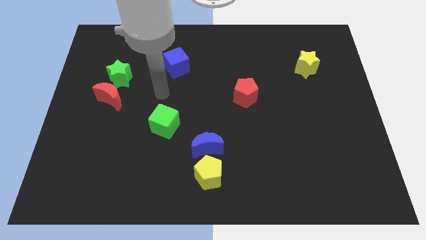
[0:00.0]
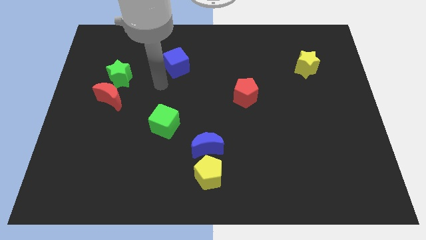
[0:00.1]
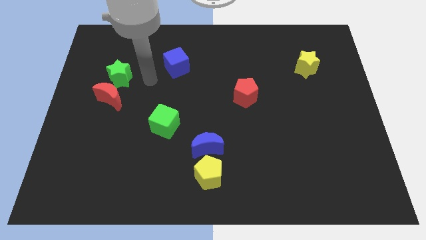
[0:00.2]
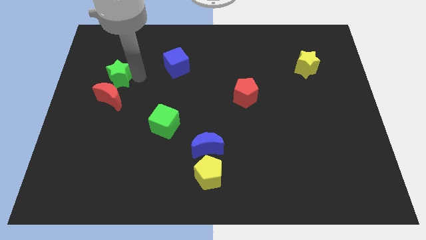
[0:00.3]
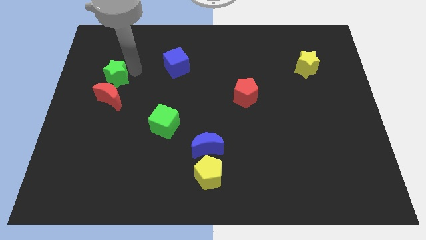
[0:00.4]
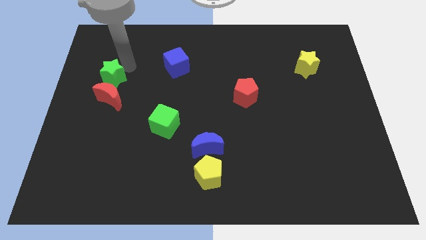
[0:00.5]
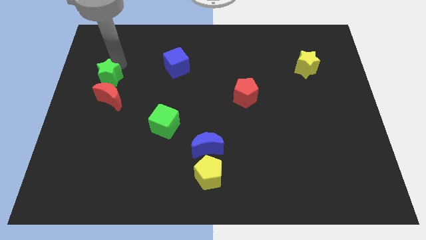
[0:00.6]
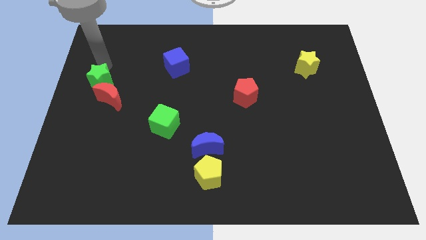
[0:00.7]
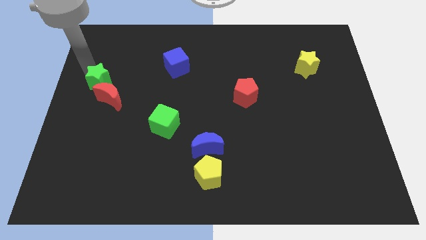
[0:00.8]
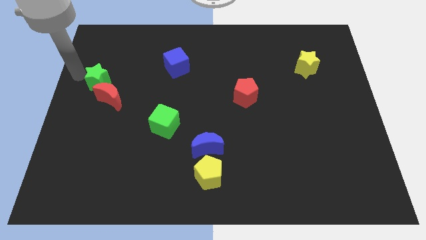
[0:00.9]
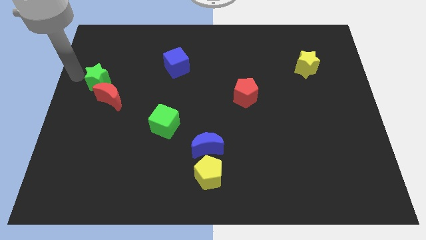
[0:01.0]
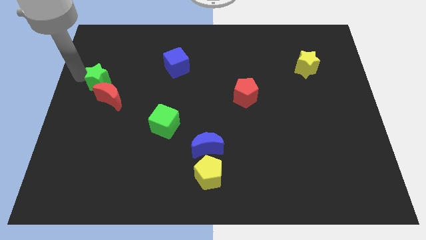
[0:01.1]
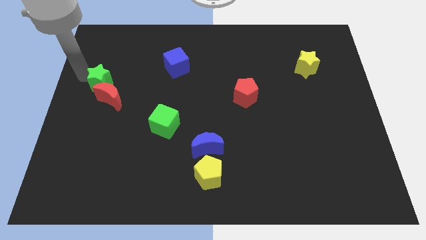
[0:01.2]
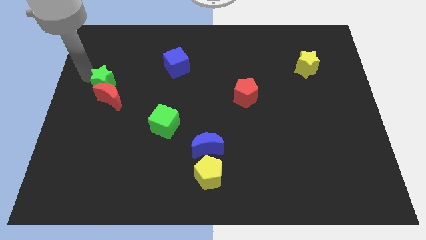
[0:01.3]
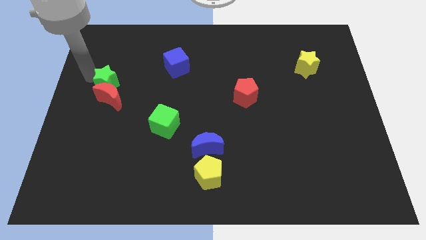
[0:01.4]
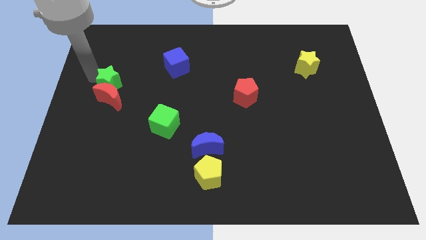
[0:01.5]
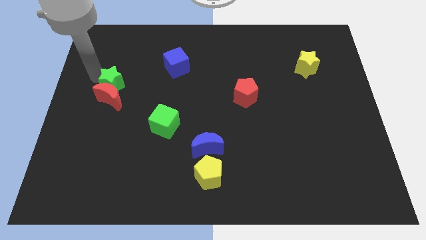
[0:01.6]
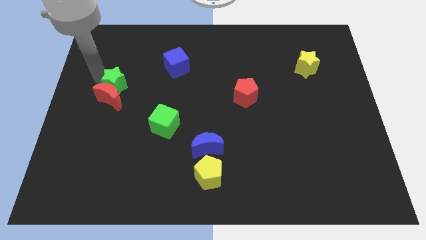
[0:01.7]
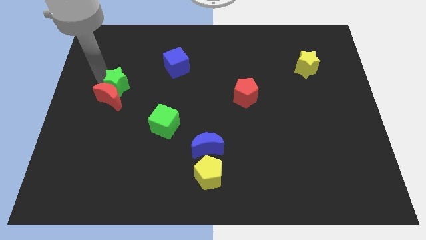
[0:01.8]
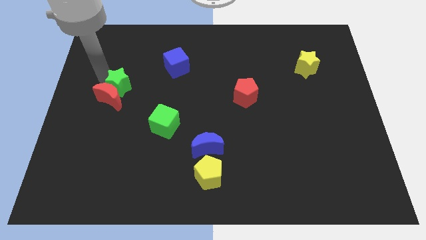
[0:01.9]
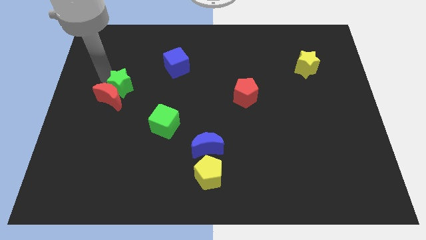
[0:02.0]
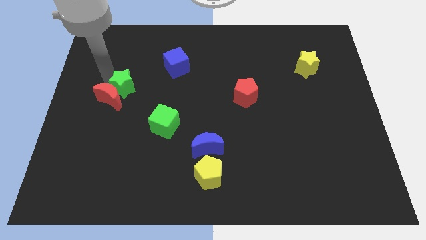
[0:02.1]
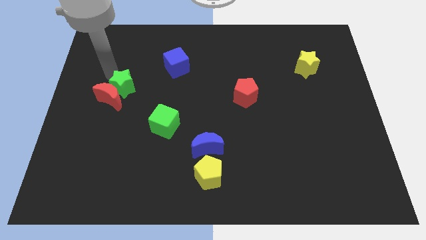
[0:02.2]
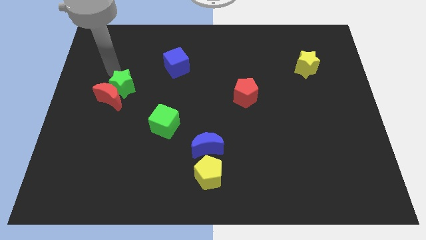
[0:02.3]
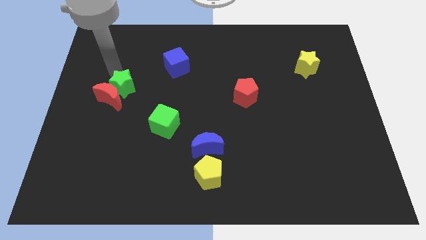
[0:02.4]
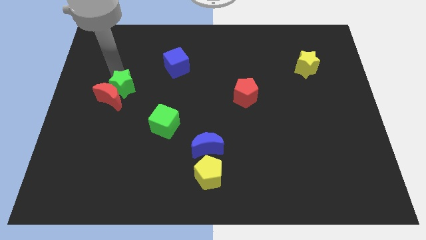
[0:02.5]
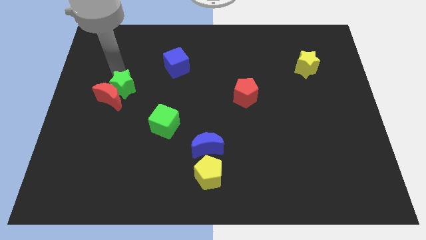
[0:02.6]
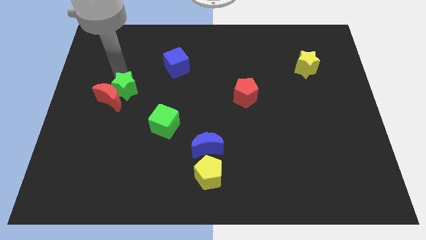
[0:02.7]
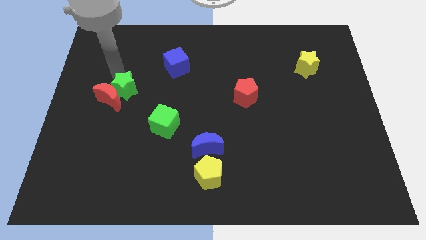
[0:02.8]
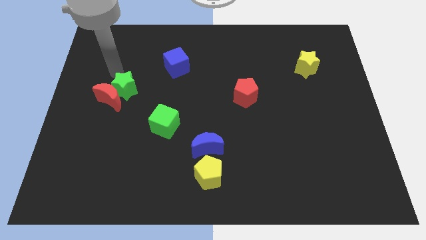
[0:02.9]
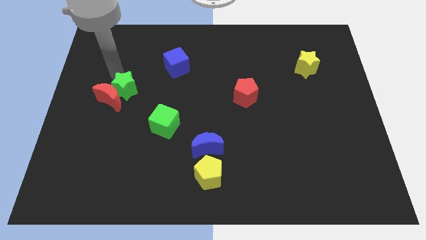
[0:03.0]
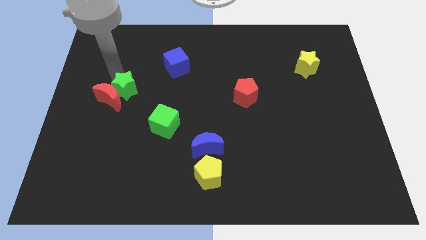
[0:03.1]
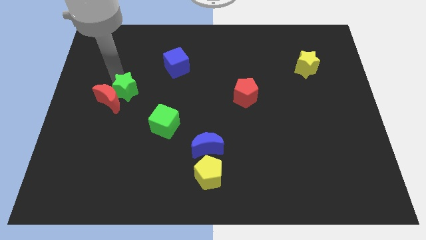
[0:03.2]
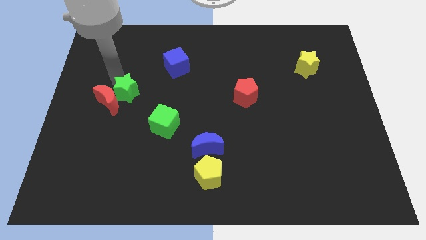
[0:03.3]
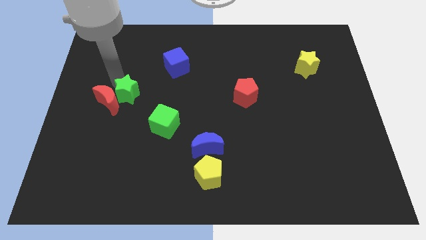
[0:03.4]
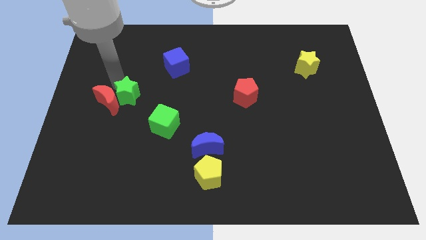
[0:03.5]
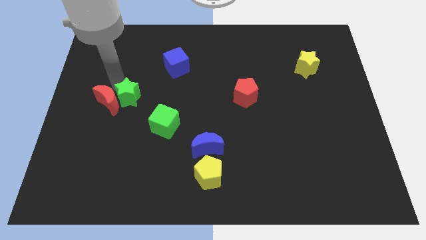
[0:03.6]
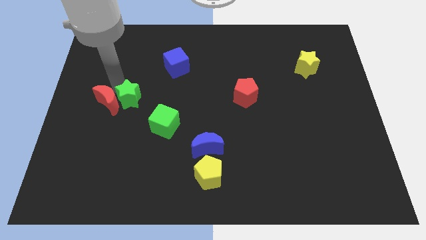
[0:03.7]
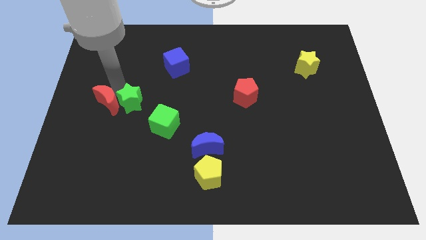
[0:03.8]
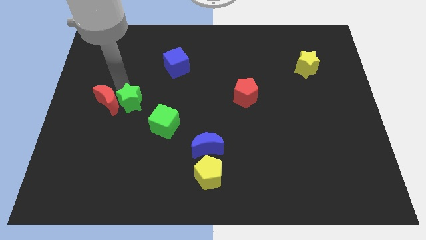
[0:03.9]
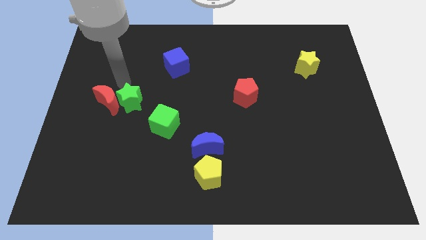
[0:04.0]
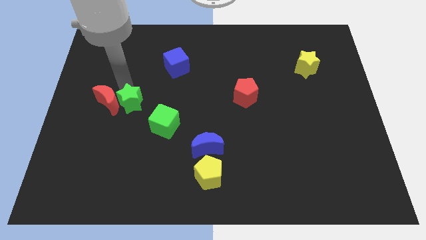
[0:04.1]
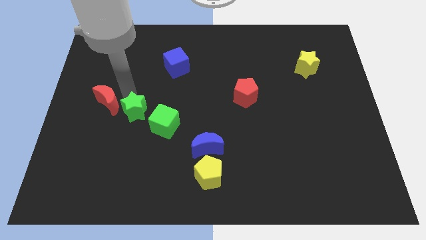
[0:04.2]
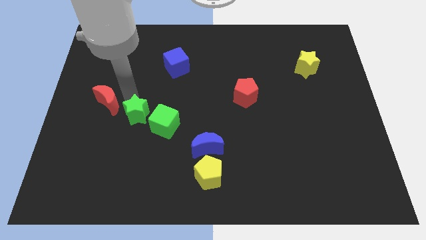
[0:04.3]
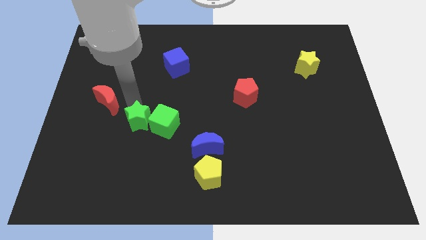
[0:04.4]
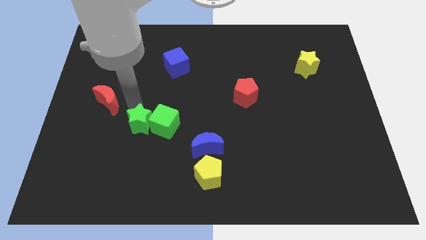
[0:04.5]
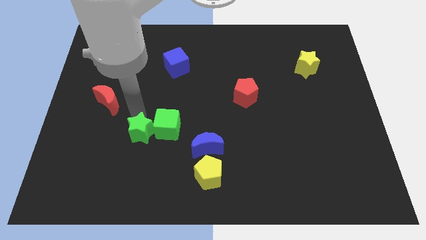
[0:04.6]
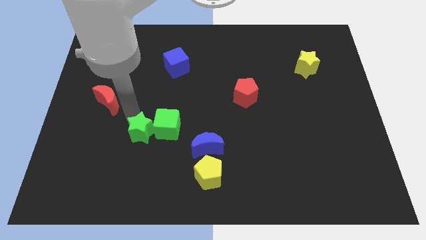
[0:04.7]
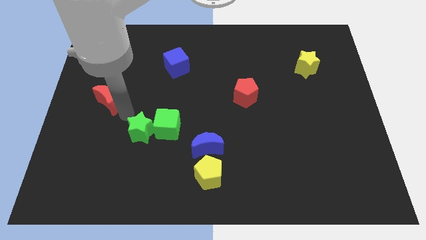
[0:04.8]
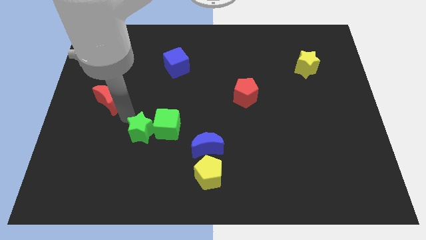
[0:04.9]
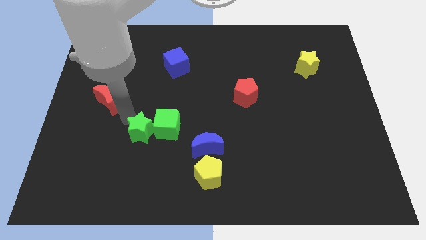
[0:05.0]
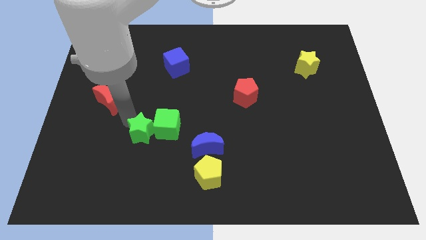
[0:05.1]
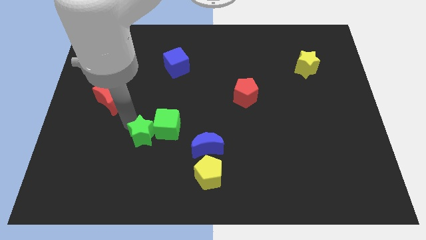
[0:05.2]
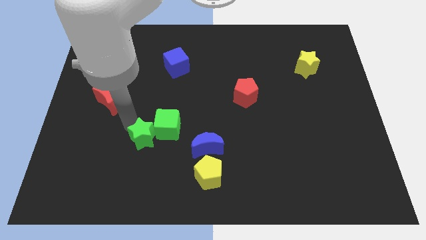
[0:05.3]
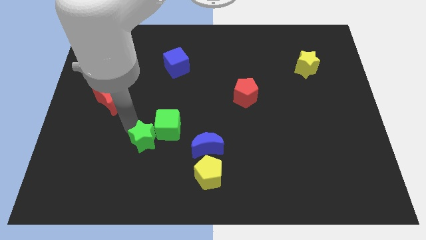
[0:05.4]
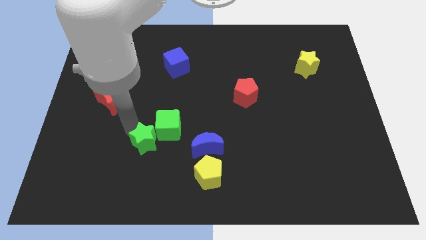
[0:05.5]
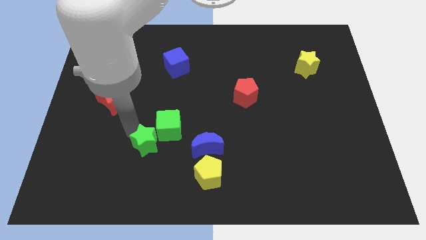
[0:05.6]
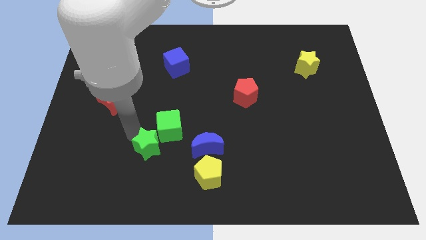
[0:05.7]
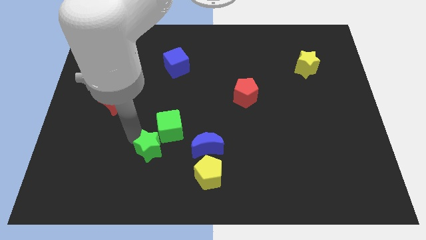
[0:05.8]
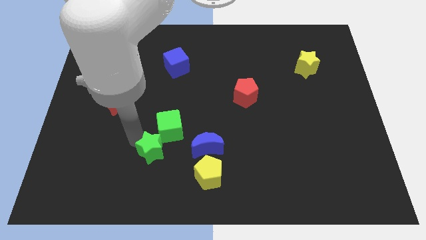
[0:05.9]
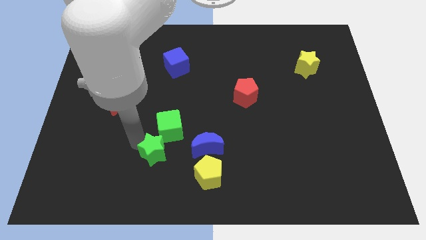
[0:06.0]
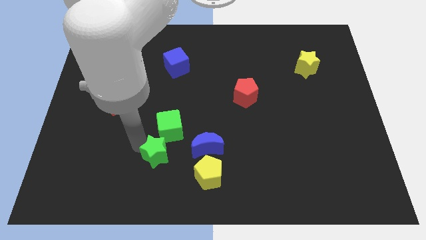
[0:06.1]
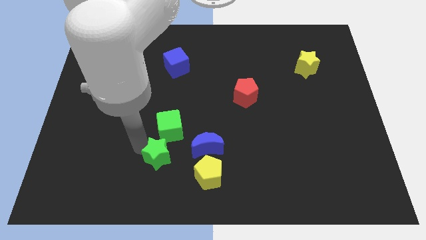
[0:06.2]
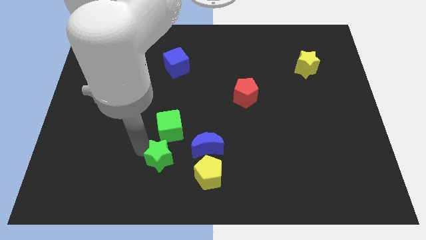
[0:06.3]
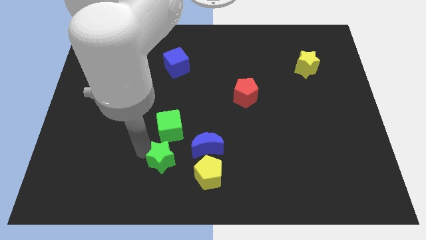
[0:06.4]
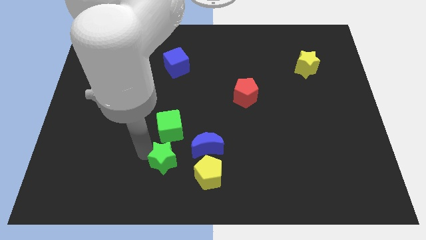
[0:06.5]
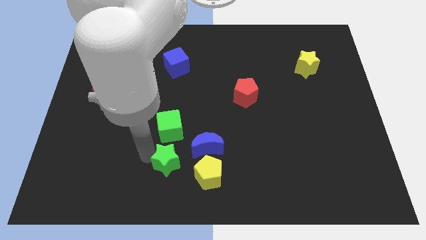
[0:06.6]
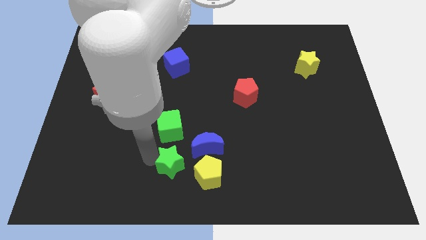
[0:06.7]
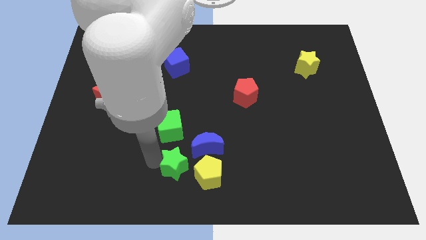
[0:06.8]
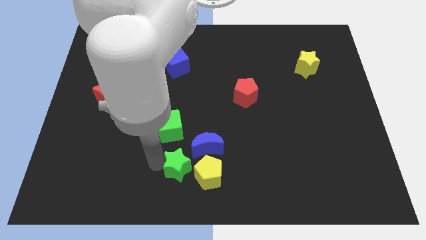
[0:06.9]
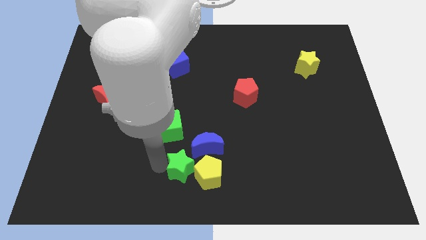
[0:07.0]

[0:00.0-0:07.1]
slide the green star close to the yellow pentagon
